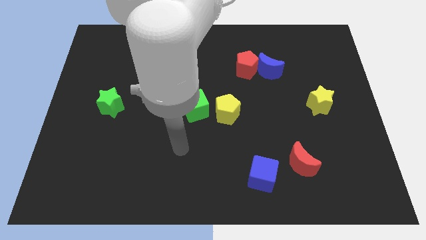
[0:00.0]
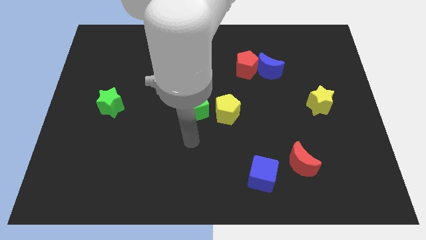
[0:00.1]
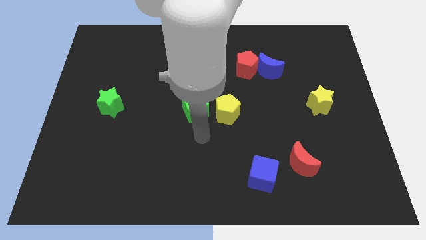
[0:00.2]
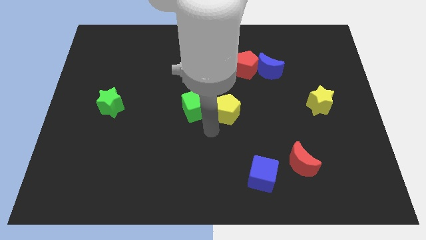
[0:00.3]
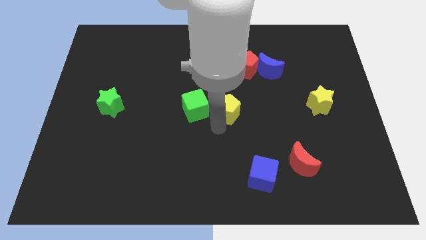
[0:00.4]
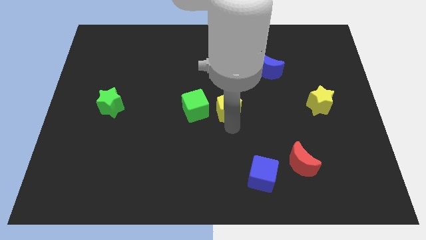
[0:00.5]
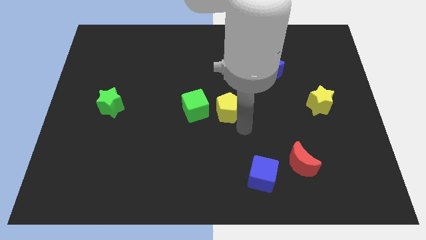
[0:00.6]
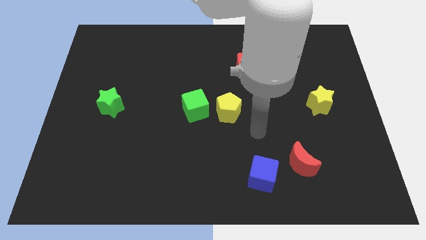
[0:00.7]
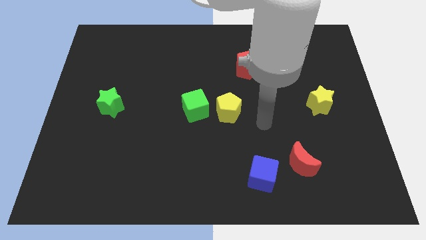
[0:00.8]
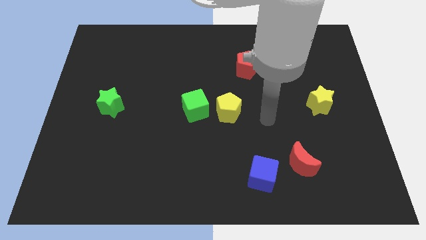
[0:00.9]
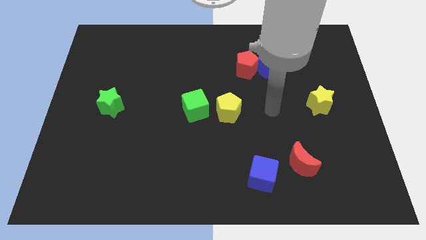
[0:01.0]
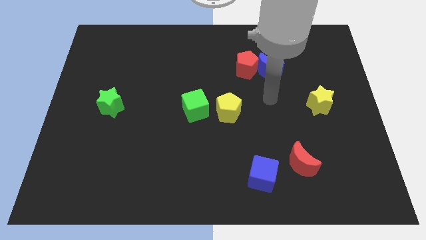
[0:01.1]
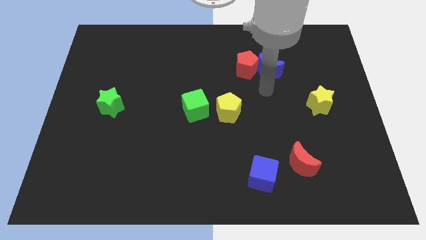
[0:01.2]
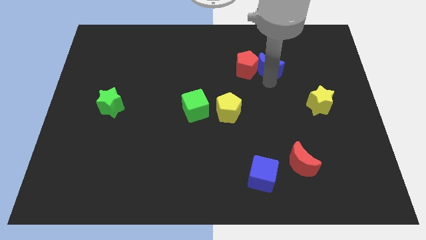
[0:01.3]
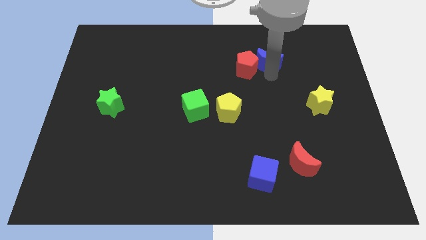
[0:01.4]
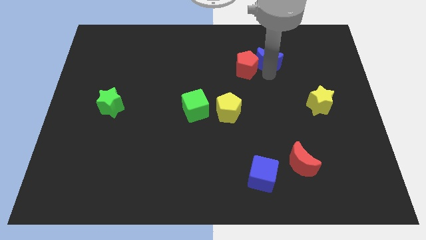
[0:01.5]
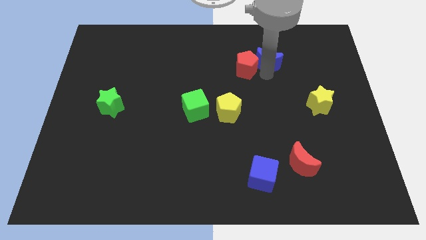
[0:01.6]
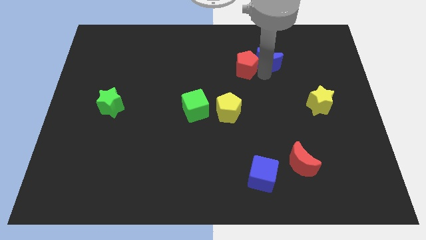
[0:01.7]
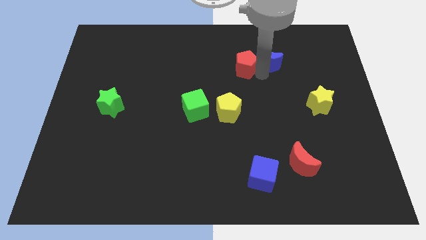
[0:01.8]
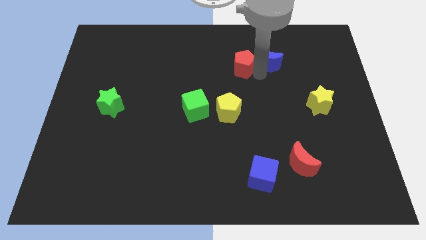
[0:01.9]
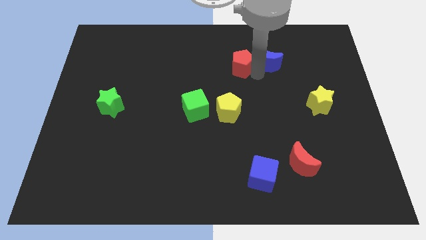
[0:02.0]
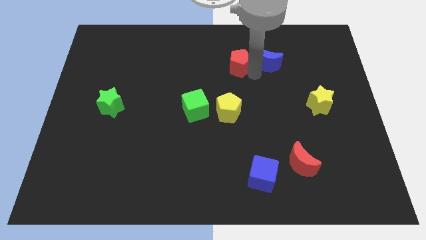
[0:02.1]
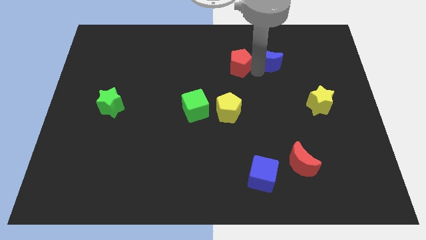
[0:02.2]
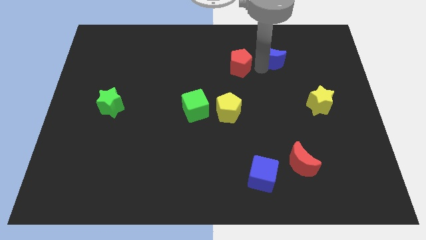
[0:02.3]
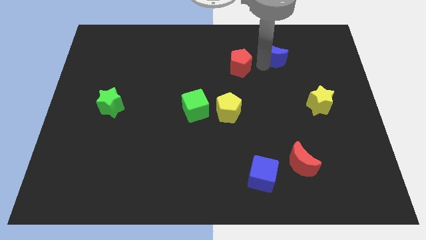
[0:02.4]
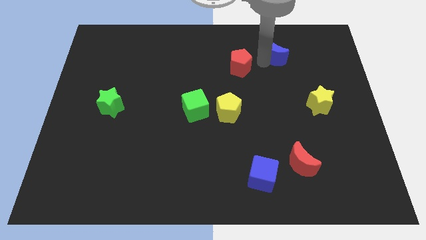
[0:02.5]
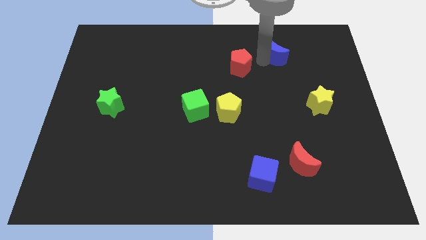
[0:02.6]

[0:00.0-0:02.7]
separate the red pentagon from the blue moon

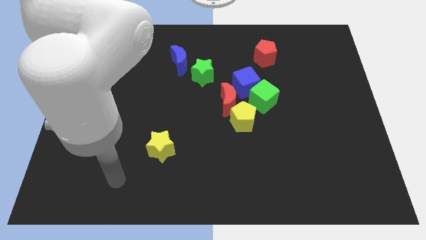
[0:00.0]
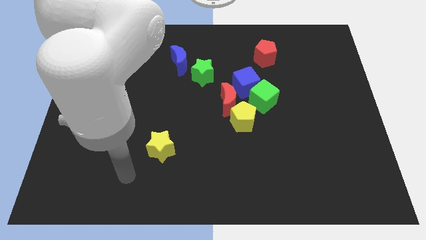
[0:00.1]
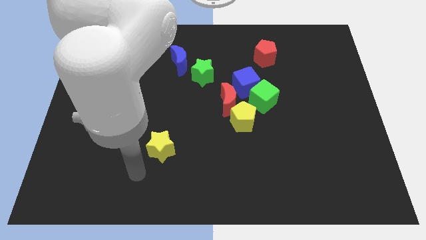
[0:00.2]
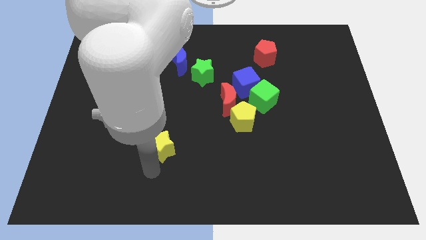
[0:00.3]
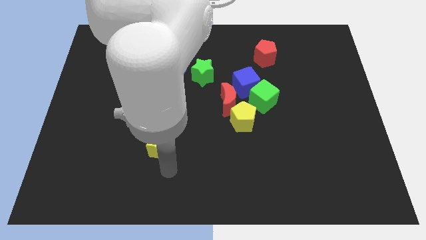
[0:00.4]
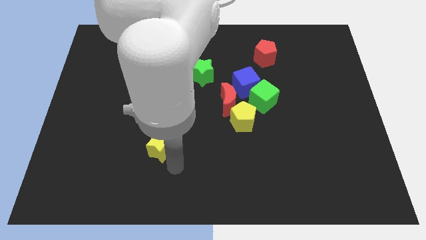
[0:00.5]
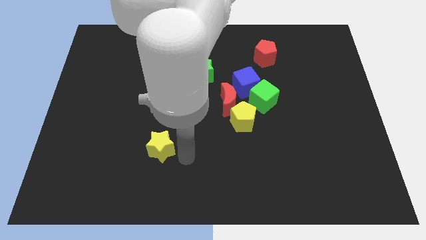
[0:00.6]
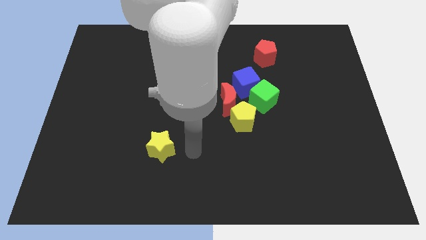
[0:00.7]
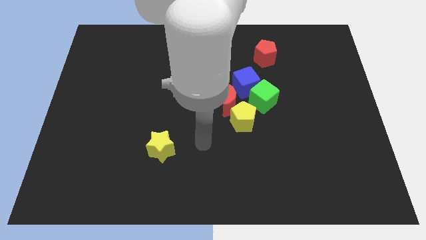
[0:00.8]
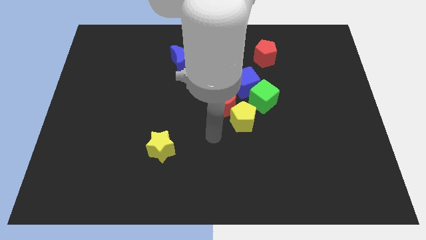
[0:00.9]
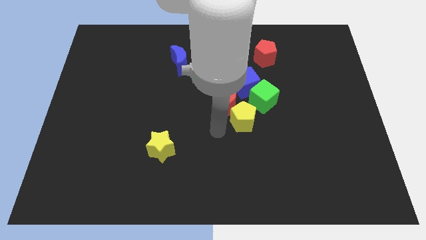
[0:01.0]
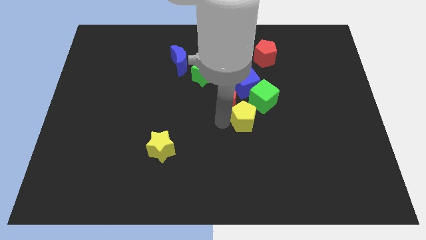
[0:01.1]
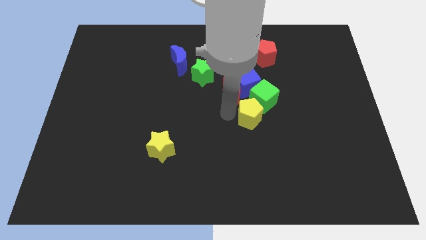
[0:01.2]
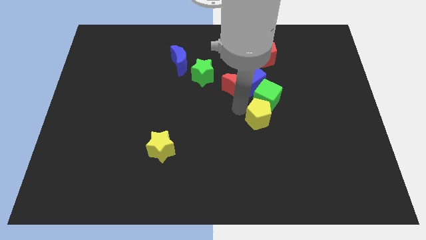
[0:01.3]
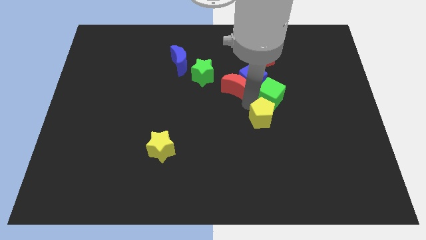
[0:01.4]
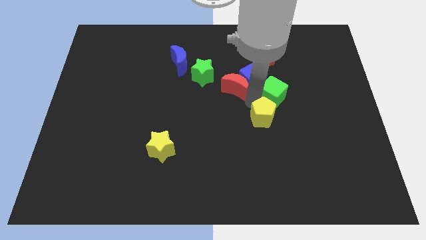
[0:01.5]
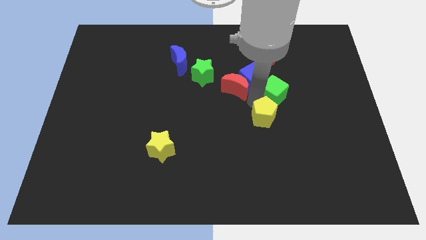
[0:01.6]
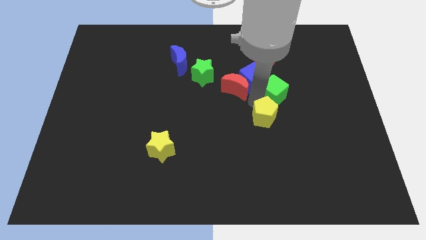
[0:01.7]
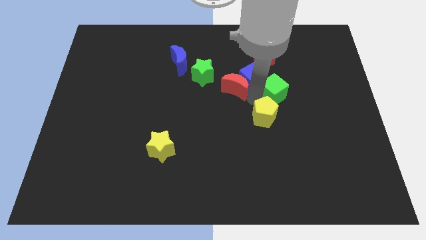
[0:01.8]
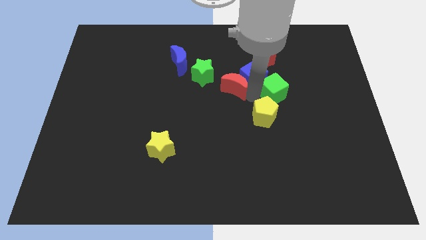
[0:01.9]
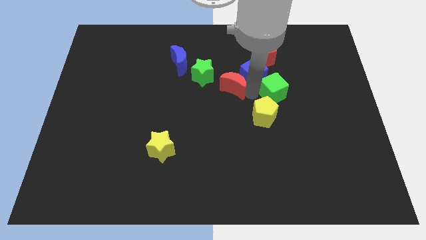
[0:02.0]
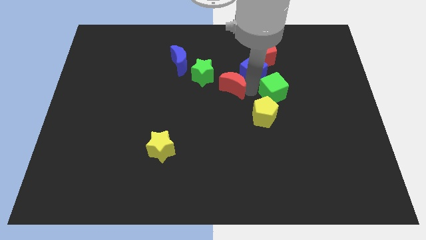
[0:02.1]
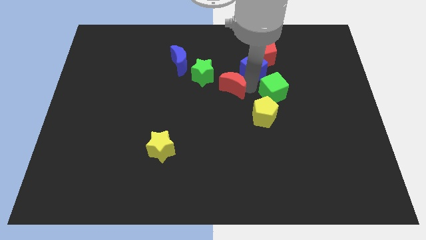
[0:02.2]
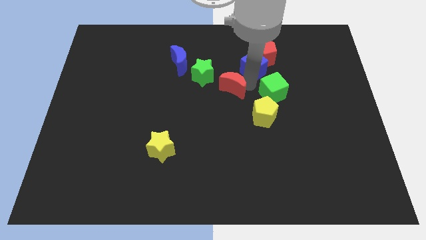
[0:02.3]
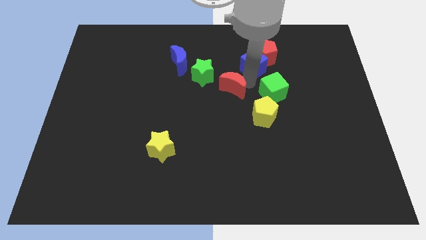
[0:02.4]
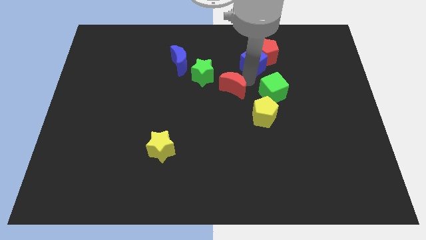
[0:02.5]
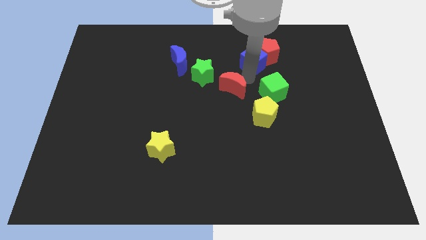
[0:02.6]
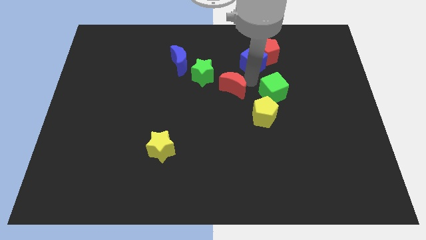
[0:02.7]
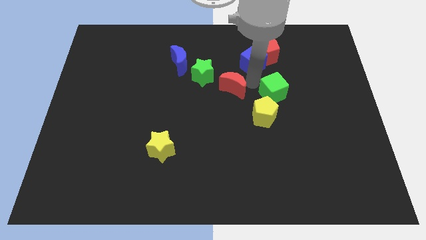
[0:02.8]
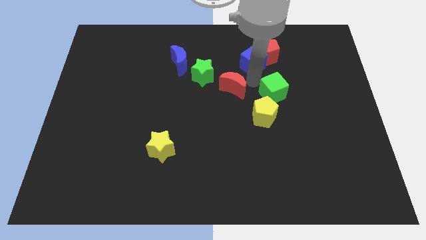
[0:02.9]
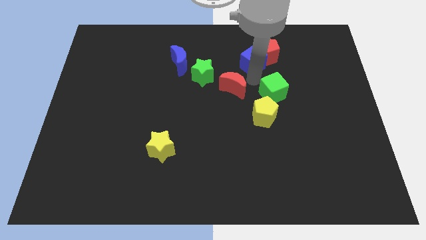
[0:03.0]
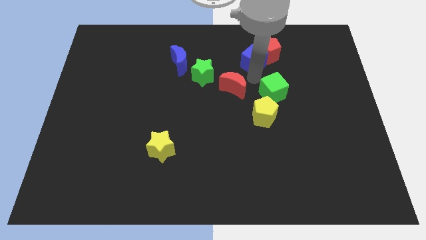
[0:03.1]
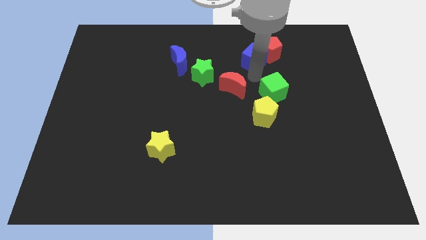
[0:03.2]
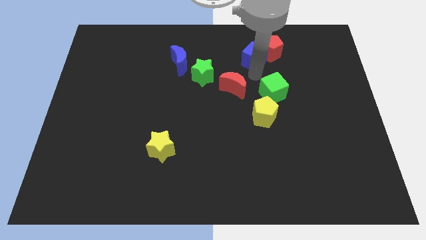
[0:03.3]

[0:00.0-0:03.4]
move the blue cube away from the green cube and red moon

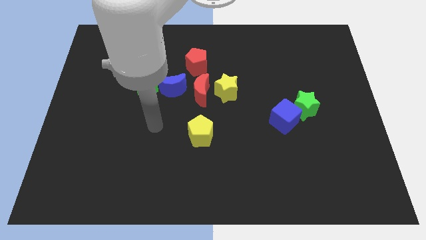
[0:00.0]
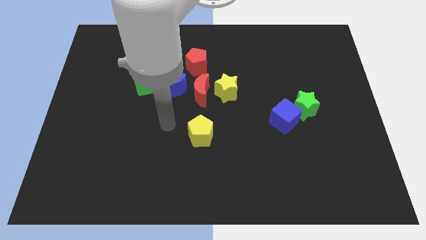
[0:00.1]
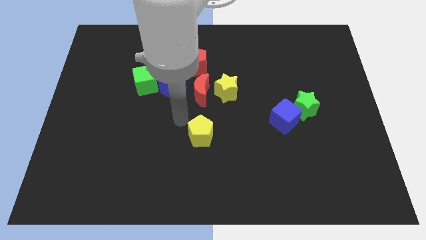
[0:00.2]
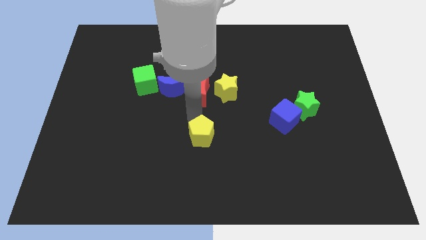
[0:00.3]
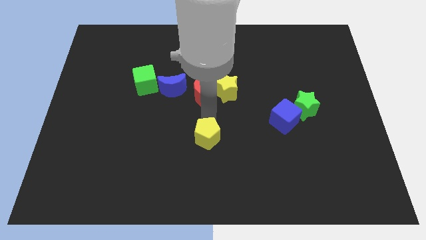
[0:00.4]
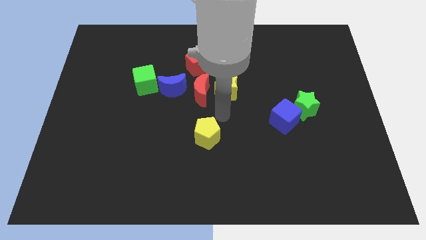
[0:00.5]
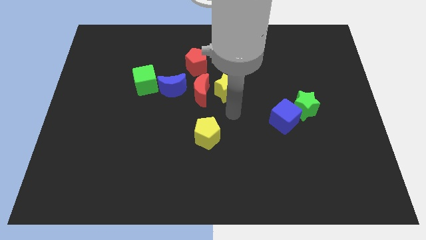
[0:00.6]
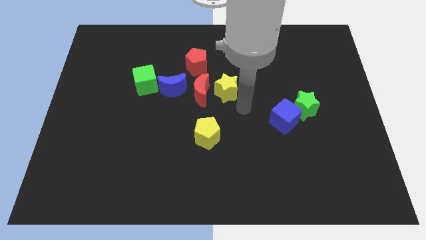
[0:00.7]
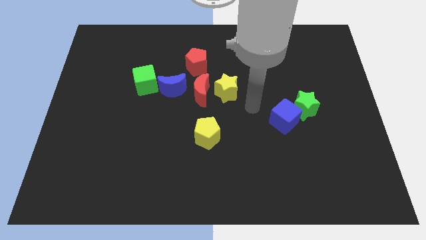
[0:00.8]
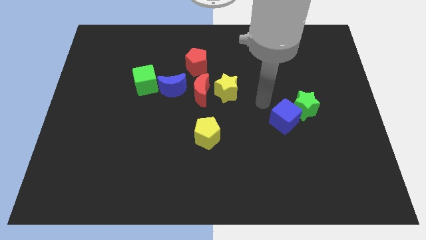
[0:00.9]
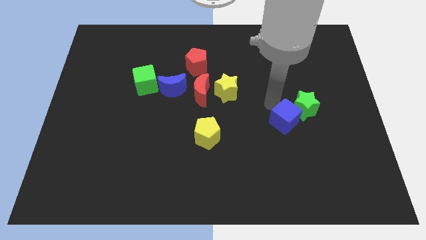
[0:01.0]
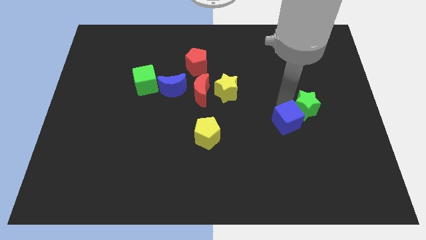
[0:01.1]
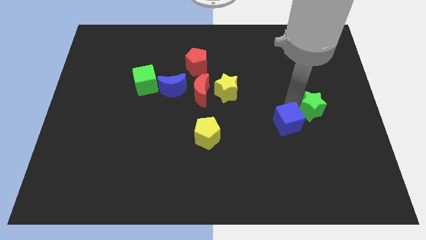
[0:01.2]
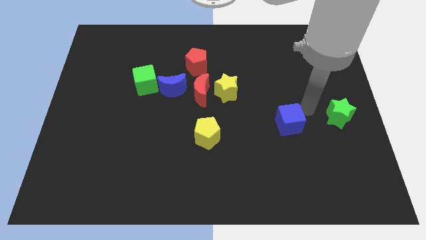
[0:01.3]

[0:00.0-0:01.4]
separate the blue cube from the green star

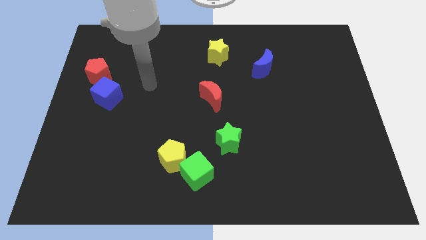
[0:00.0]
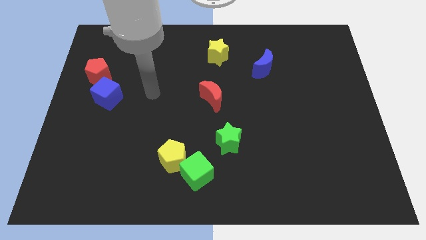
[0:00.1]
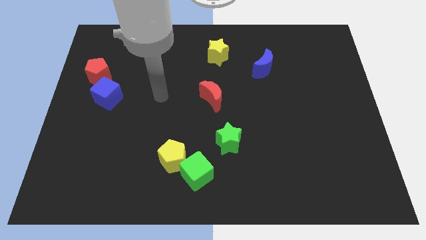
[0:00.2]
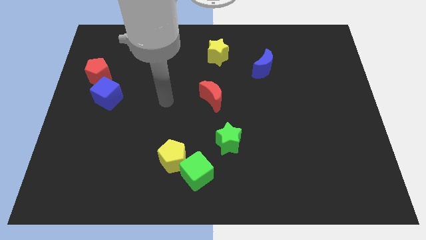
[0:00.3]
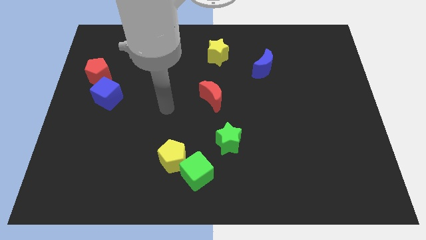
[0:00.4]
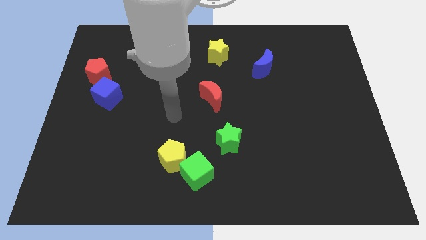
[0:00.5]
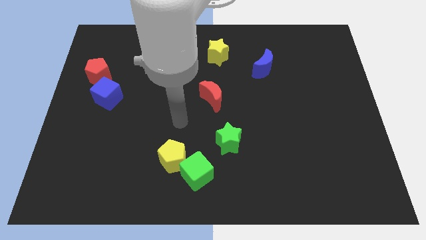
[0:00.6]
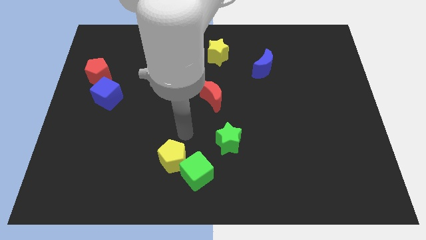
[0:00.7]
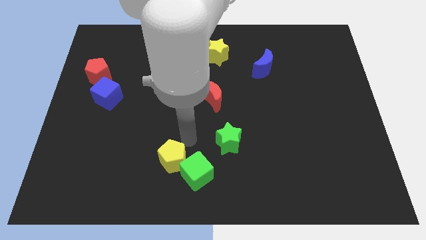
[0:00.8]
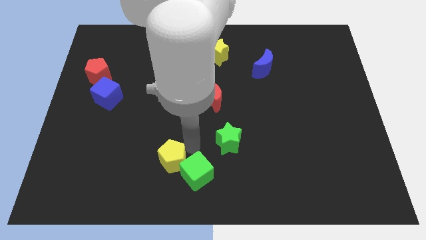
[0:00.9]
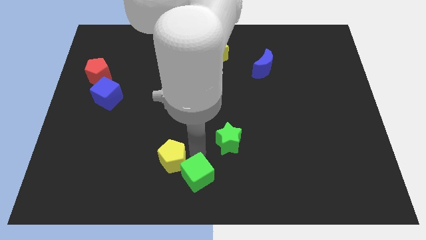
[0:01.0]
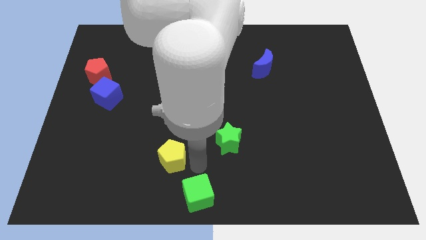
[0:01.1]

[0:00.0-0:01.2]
move the yellow pentagon away from the green cube

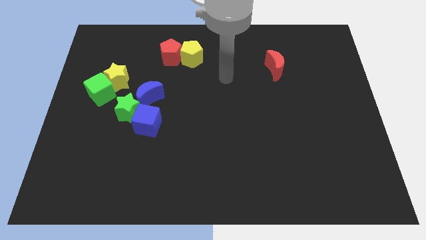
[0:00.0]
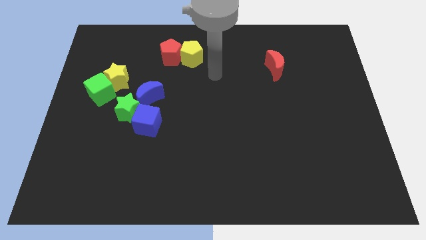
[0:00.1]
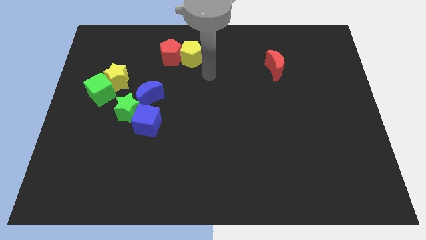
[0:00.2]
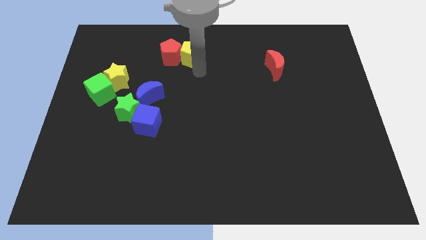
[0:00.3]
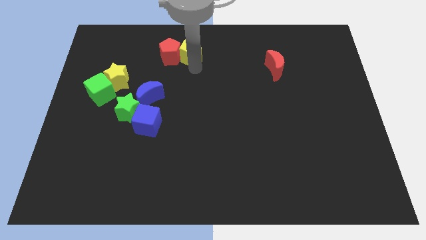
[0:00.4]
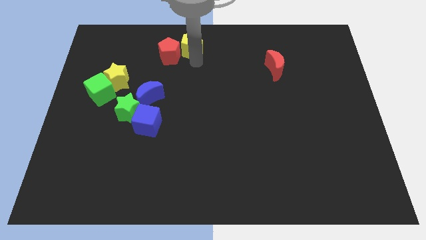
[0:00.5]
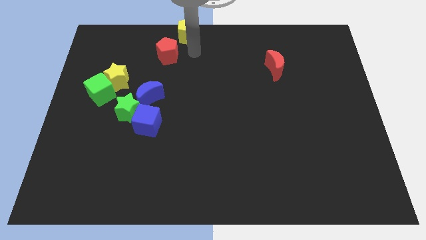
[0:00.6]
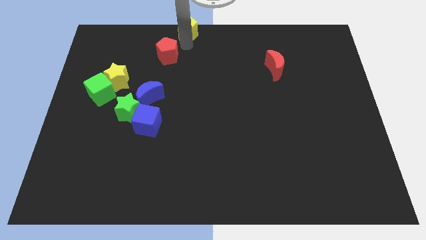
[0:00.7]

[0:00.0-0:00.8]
separate the red pentagon from the yellow pentagon
